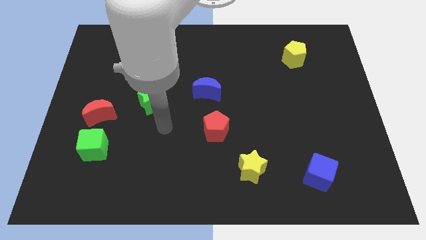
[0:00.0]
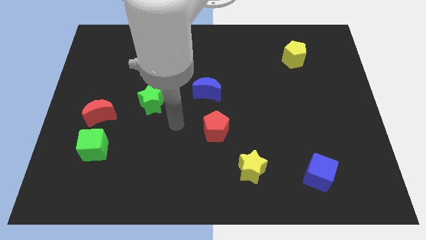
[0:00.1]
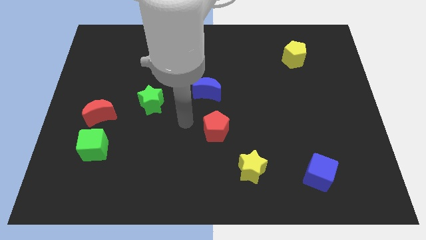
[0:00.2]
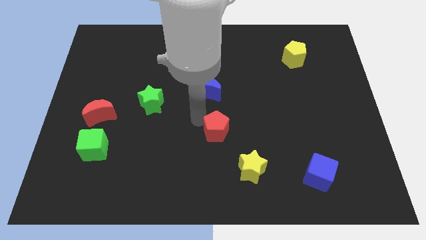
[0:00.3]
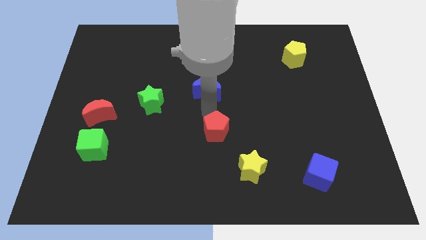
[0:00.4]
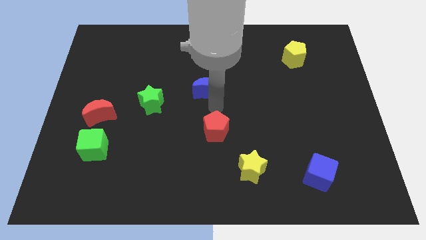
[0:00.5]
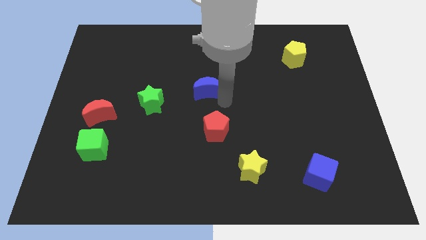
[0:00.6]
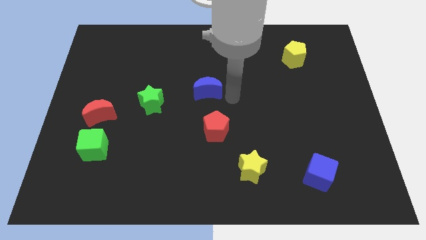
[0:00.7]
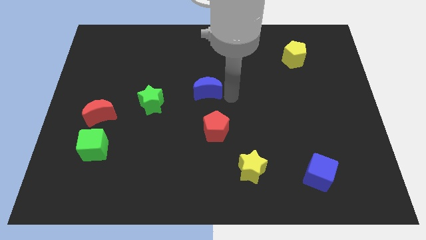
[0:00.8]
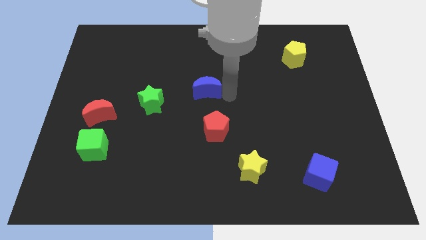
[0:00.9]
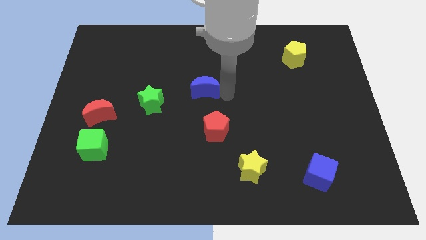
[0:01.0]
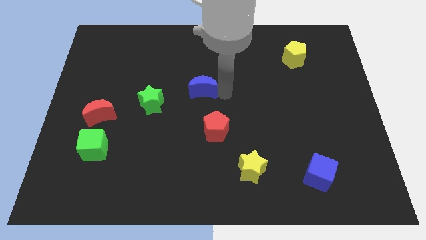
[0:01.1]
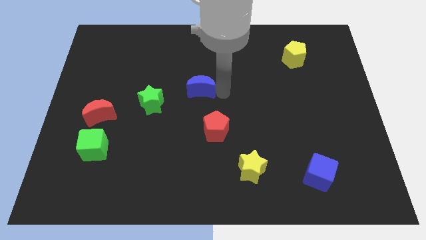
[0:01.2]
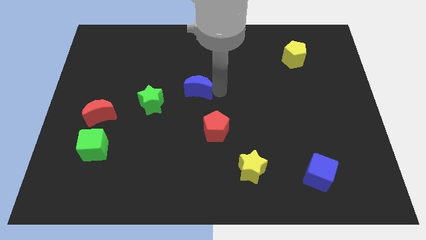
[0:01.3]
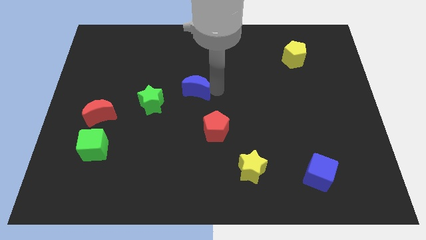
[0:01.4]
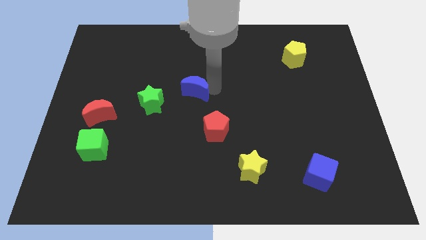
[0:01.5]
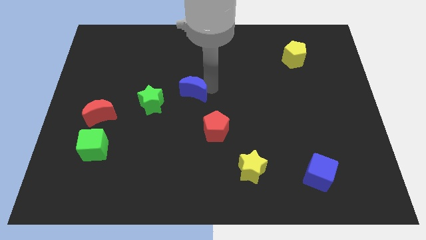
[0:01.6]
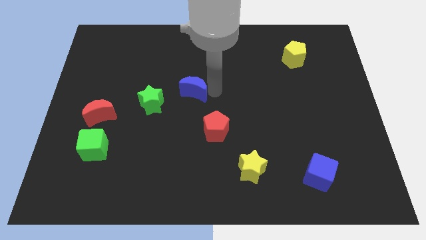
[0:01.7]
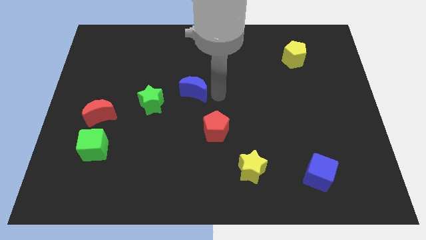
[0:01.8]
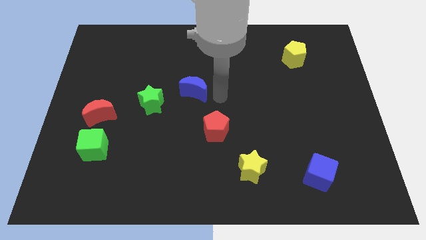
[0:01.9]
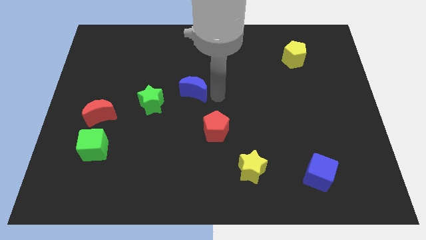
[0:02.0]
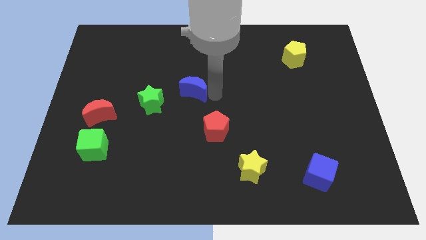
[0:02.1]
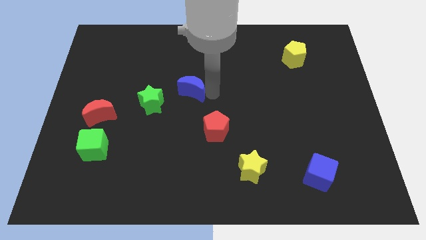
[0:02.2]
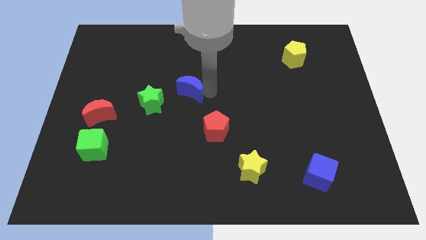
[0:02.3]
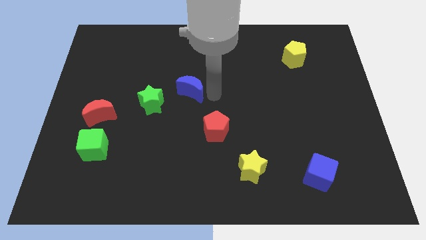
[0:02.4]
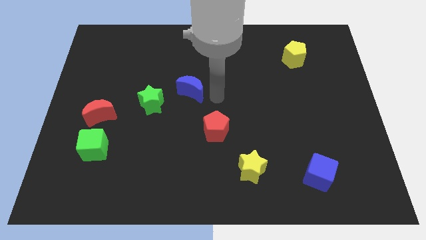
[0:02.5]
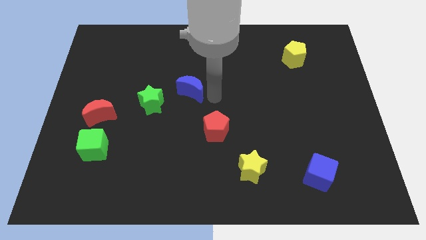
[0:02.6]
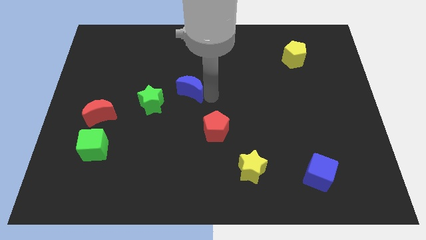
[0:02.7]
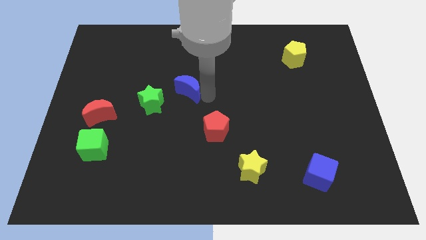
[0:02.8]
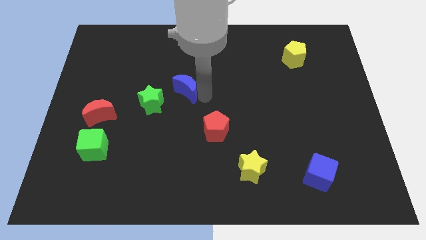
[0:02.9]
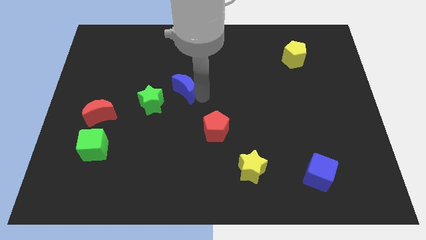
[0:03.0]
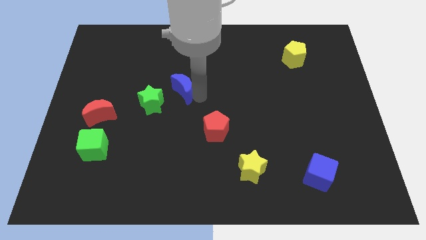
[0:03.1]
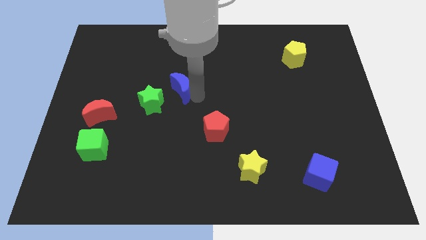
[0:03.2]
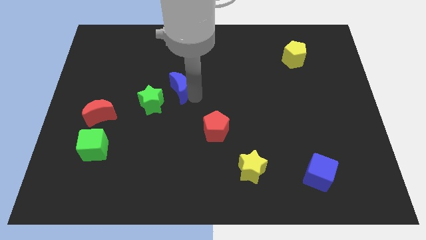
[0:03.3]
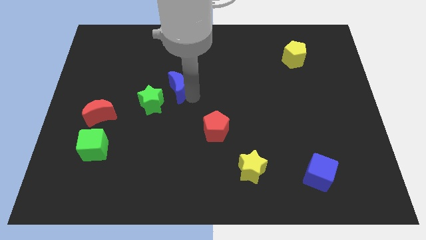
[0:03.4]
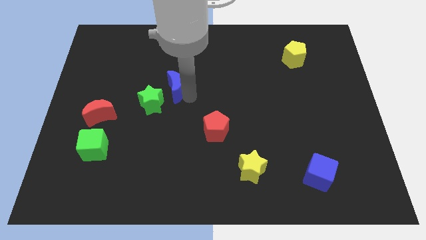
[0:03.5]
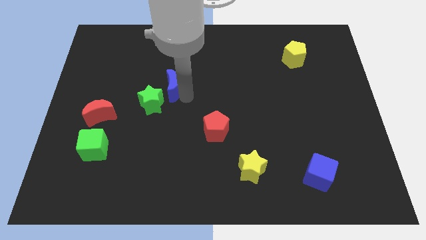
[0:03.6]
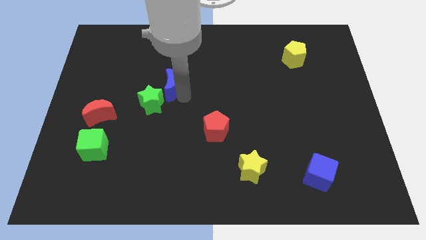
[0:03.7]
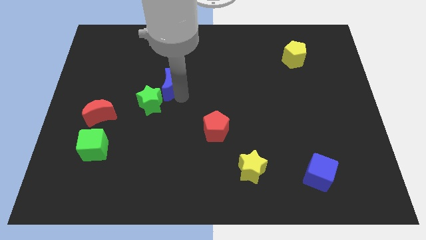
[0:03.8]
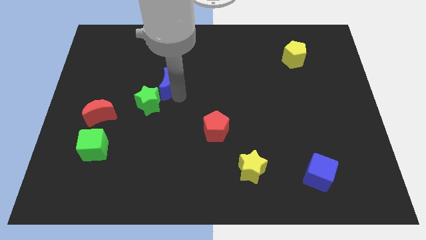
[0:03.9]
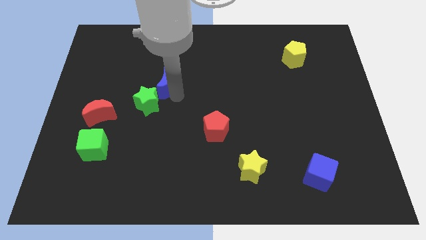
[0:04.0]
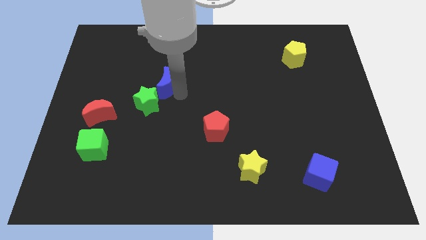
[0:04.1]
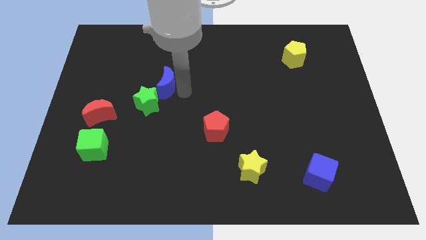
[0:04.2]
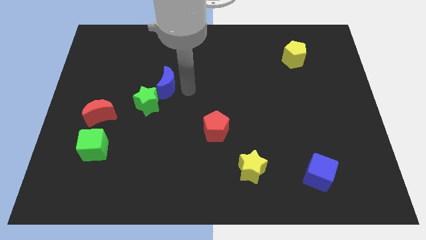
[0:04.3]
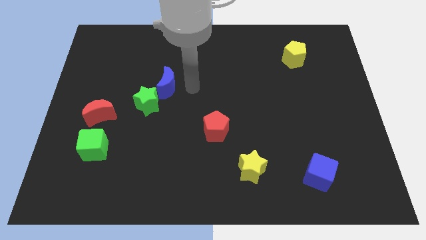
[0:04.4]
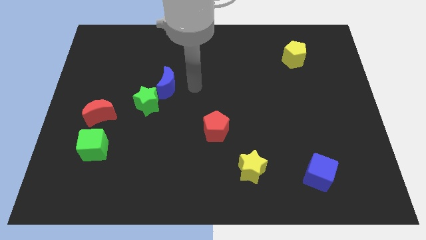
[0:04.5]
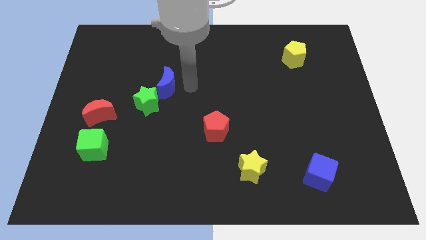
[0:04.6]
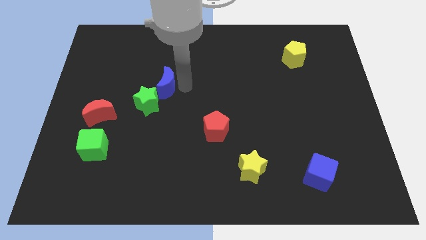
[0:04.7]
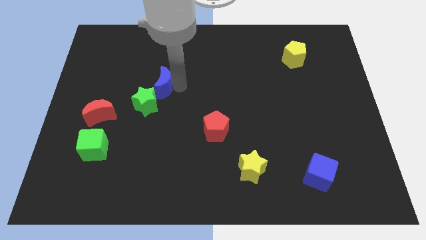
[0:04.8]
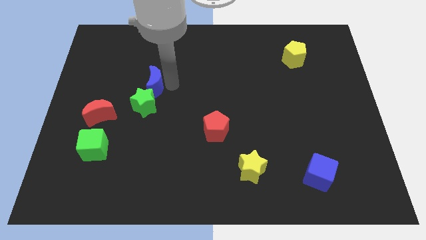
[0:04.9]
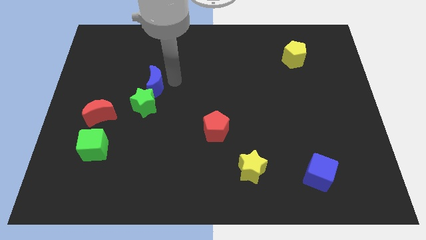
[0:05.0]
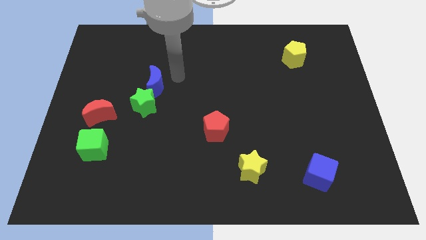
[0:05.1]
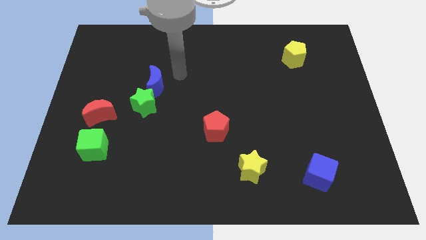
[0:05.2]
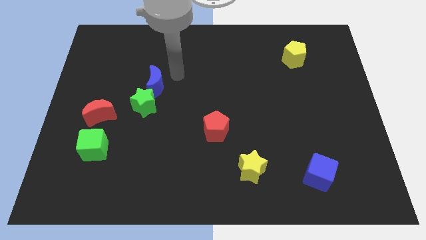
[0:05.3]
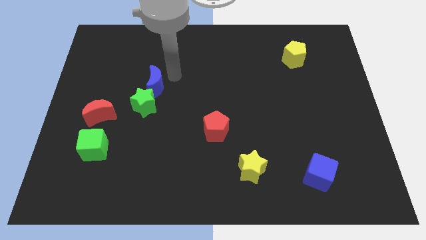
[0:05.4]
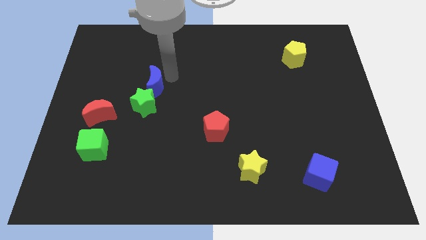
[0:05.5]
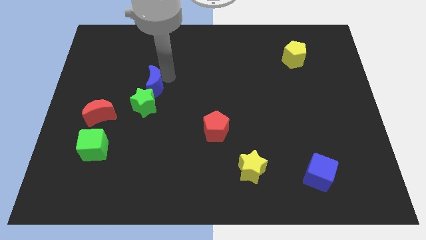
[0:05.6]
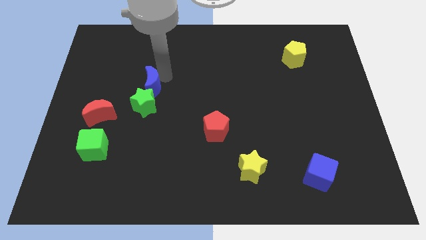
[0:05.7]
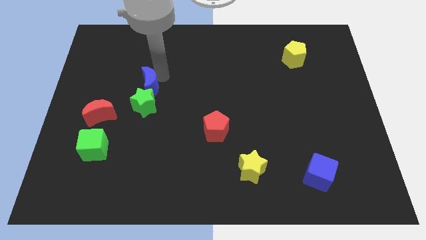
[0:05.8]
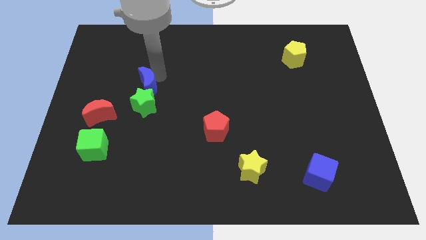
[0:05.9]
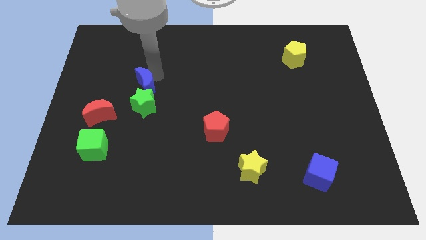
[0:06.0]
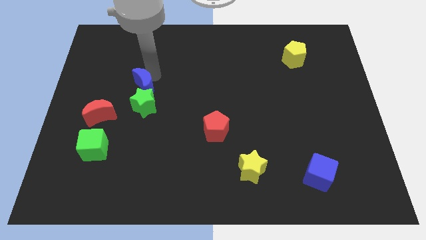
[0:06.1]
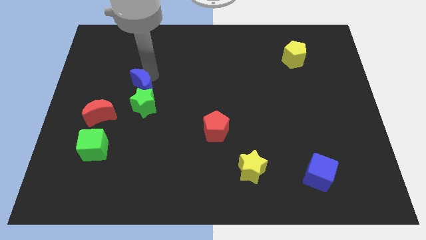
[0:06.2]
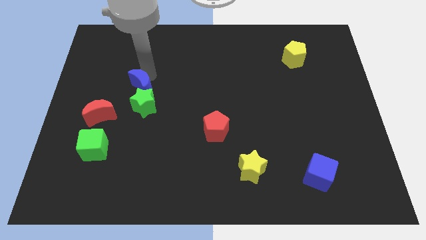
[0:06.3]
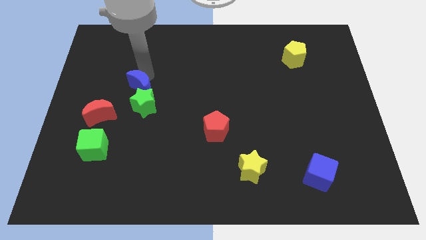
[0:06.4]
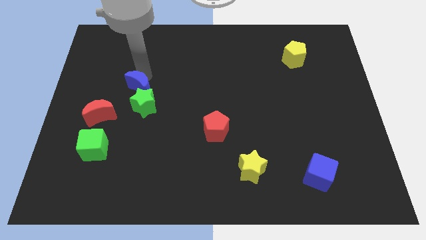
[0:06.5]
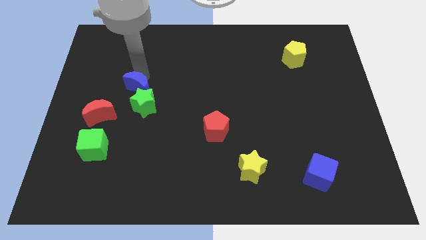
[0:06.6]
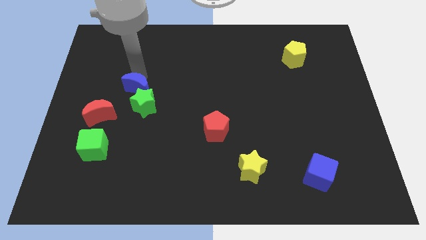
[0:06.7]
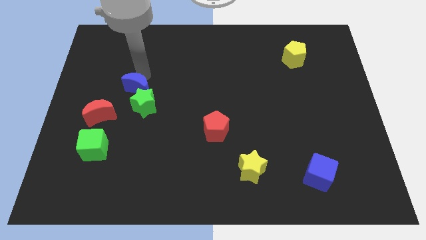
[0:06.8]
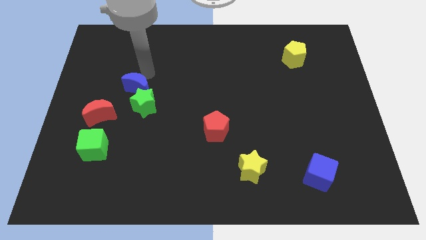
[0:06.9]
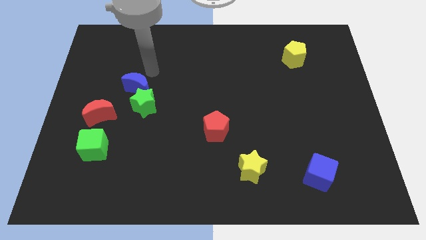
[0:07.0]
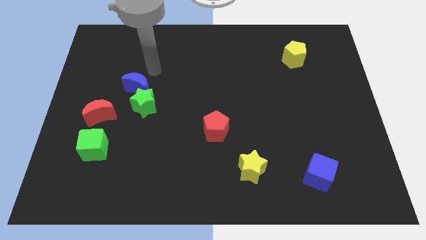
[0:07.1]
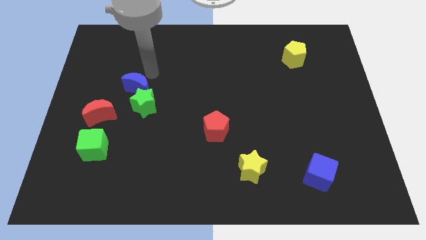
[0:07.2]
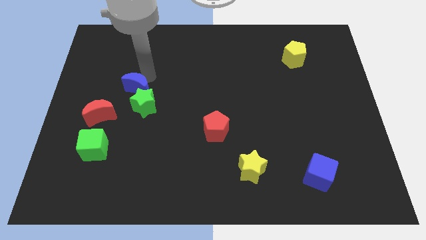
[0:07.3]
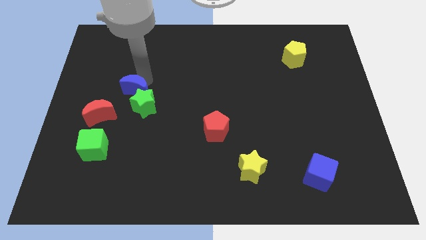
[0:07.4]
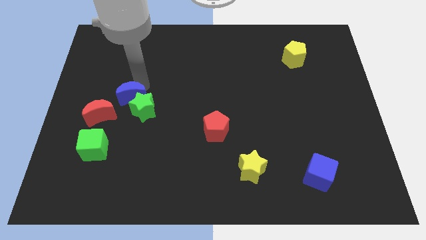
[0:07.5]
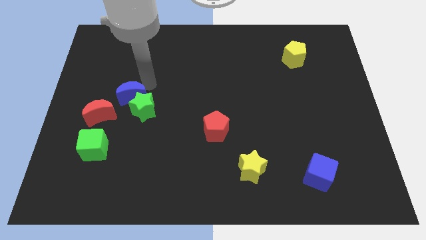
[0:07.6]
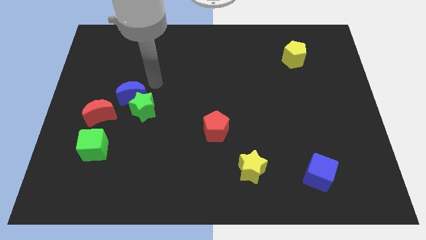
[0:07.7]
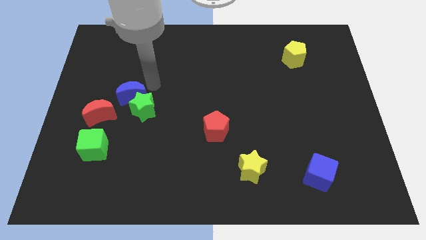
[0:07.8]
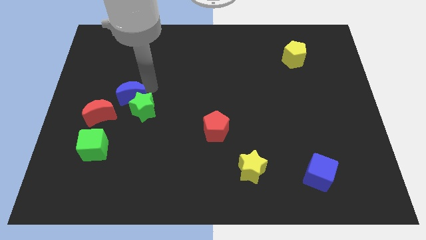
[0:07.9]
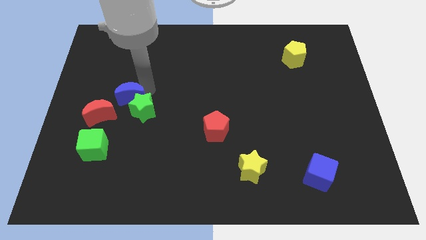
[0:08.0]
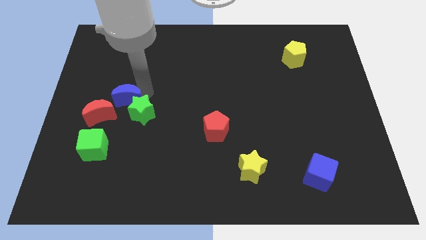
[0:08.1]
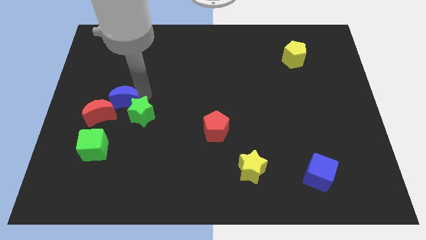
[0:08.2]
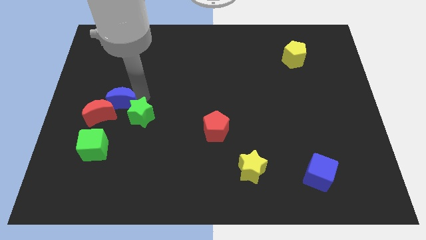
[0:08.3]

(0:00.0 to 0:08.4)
push the blue moon next to the red moon

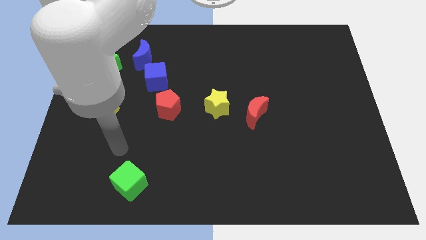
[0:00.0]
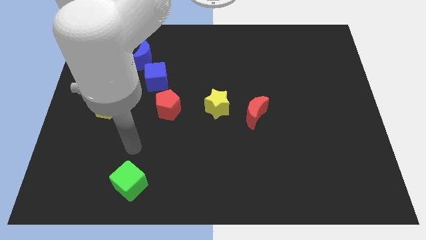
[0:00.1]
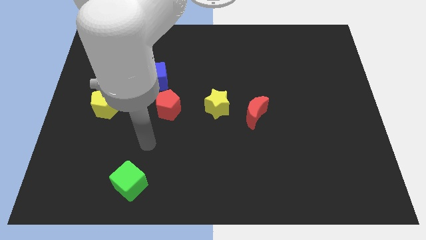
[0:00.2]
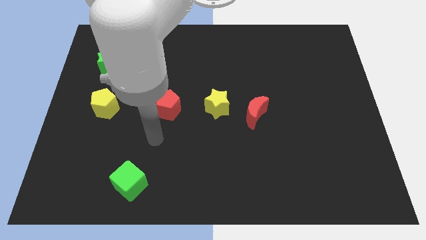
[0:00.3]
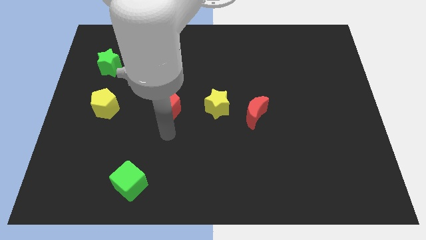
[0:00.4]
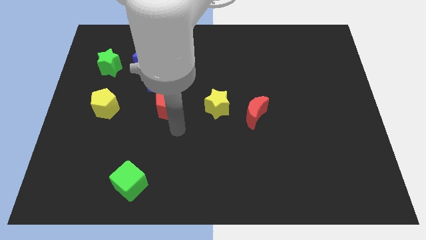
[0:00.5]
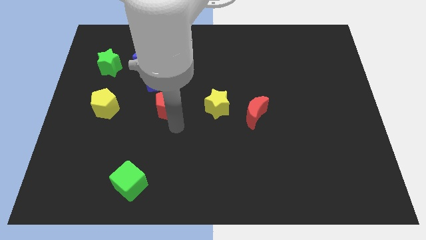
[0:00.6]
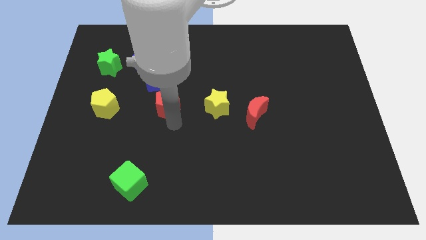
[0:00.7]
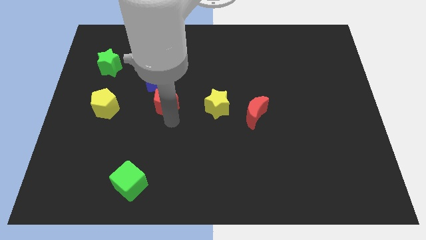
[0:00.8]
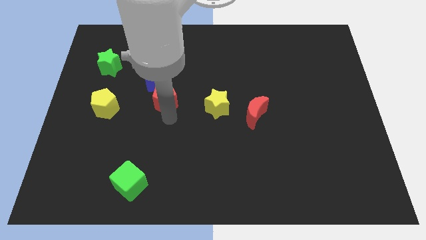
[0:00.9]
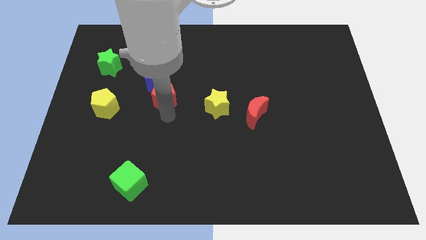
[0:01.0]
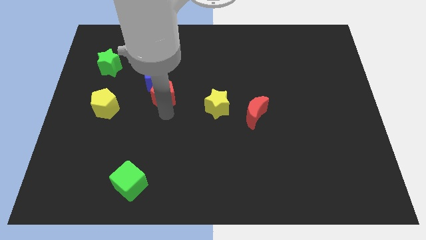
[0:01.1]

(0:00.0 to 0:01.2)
push the red pentagon next to the blue cube
